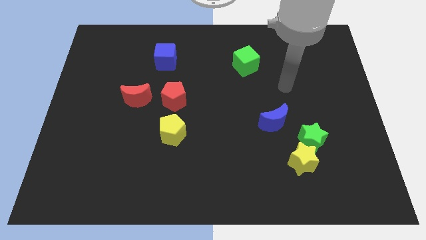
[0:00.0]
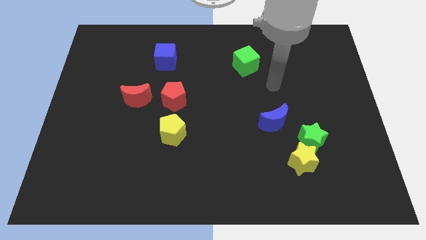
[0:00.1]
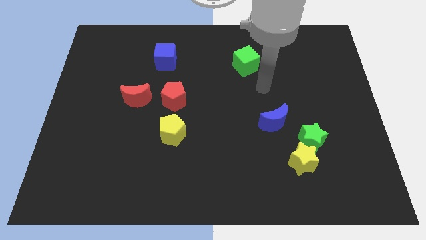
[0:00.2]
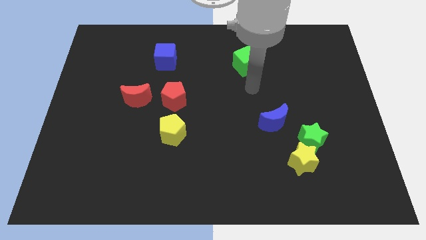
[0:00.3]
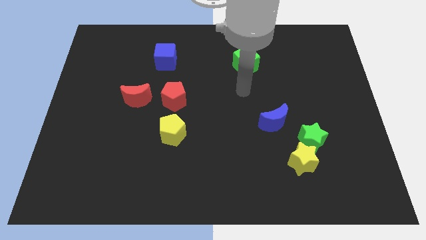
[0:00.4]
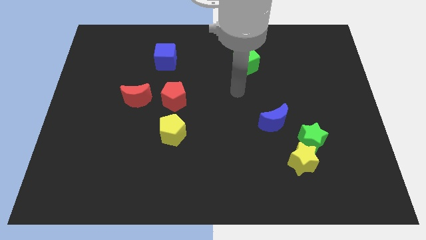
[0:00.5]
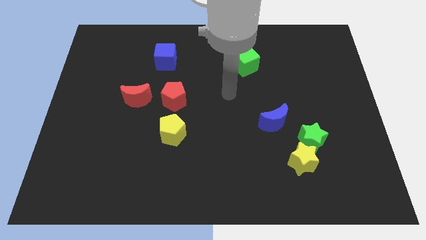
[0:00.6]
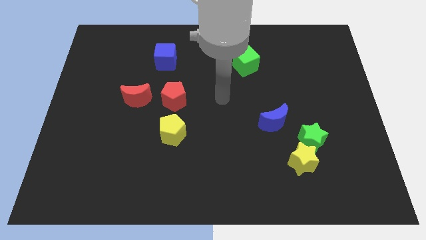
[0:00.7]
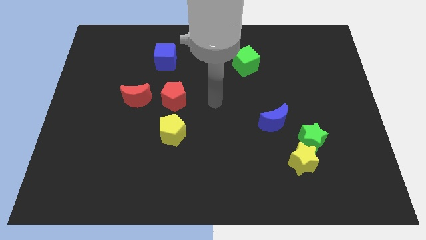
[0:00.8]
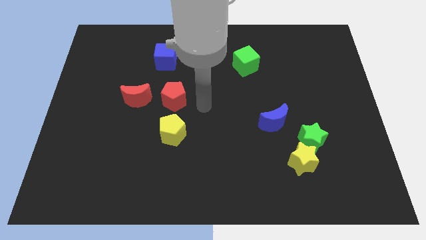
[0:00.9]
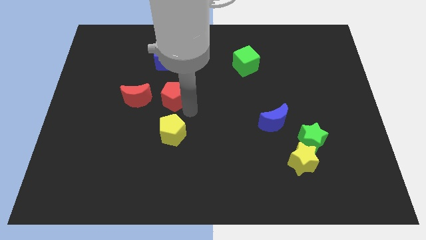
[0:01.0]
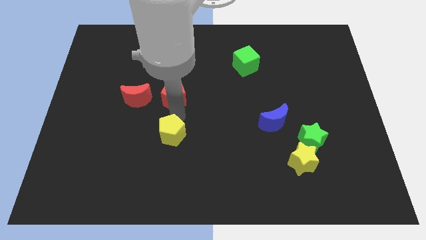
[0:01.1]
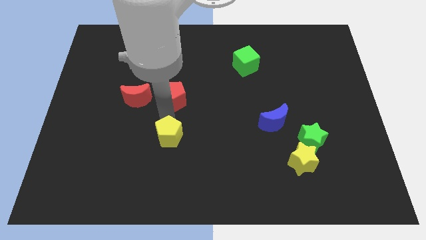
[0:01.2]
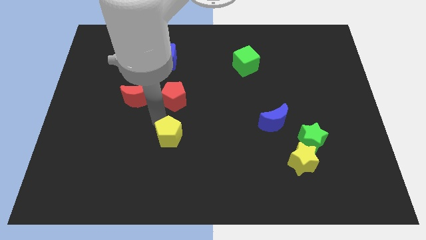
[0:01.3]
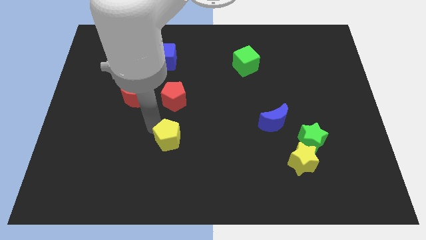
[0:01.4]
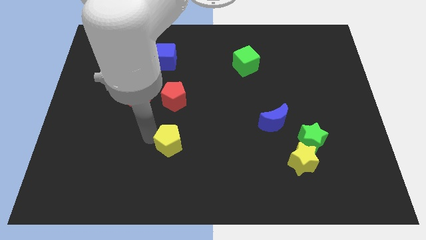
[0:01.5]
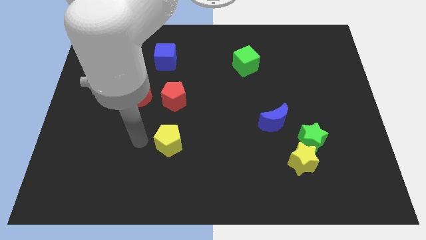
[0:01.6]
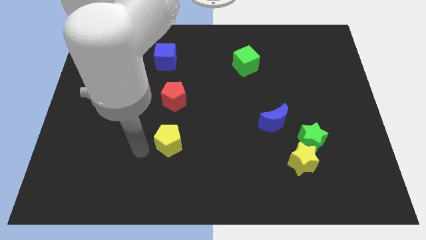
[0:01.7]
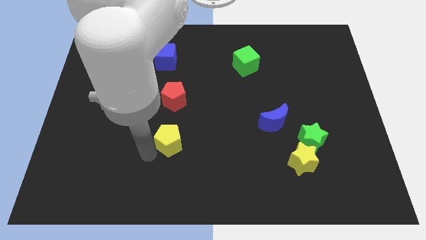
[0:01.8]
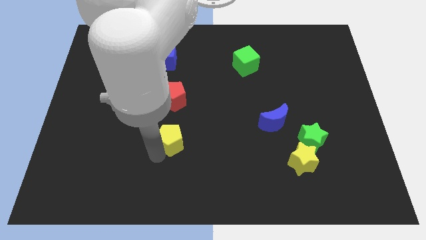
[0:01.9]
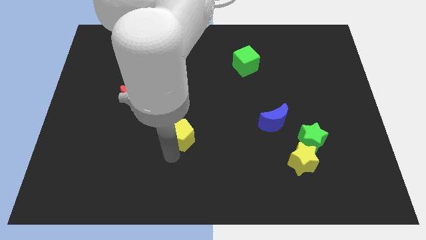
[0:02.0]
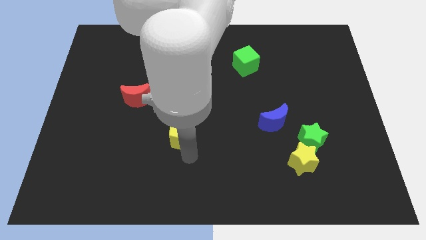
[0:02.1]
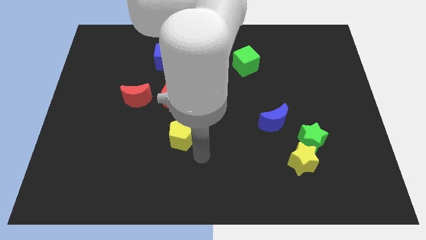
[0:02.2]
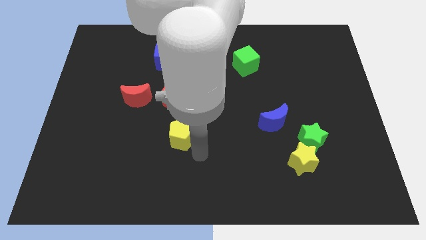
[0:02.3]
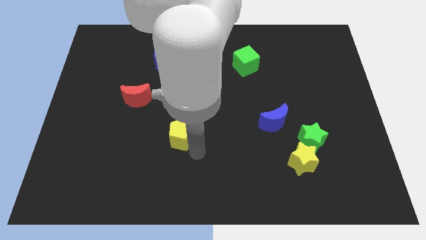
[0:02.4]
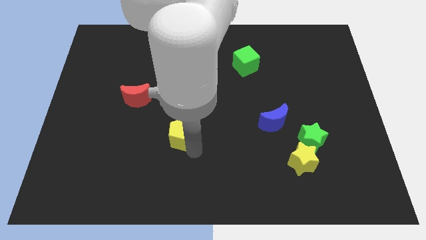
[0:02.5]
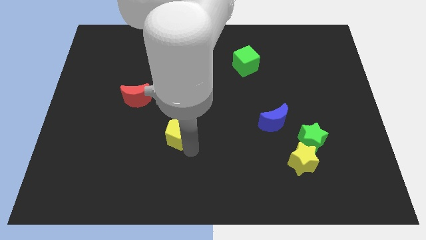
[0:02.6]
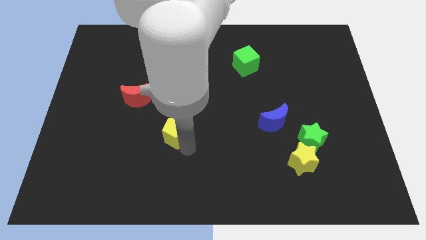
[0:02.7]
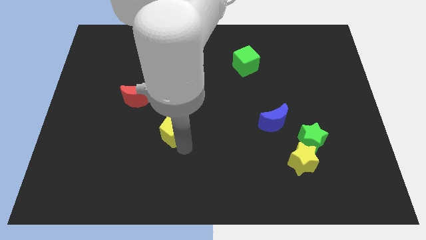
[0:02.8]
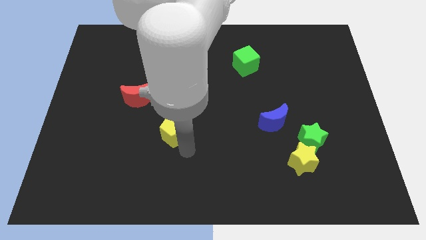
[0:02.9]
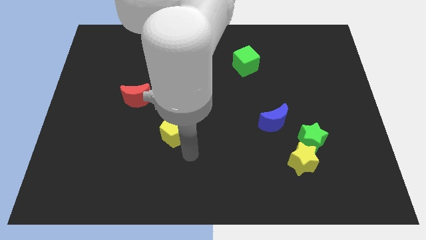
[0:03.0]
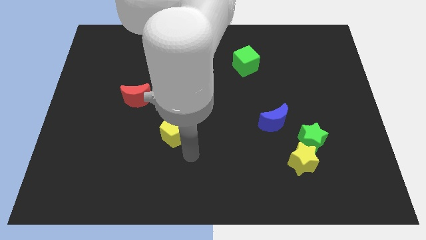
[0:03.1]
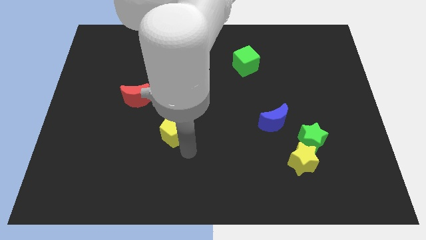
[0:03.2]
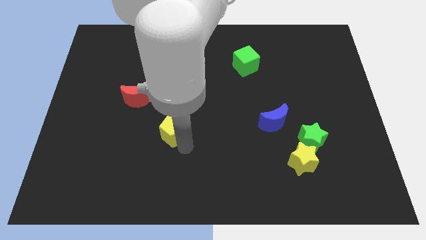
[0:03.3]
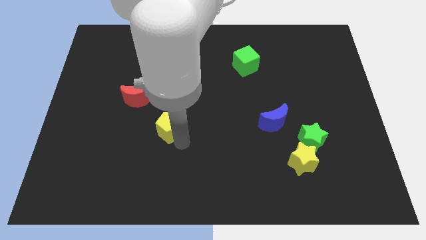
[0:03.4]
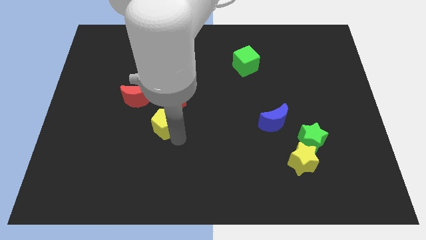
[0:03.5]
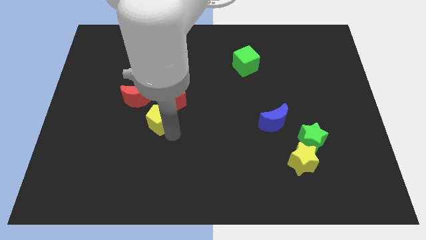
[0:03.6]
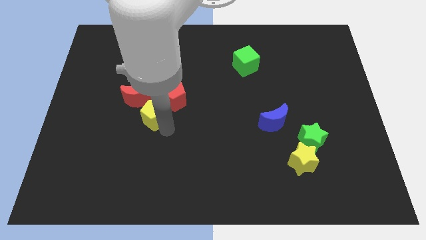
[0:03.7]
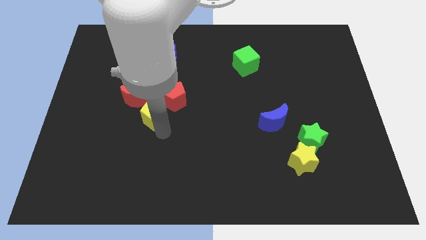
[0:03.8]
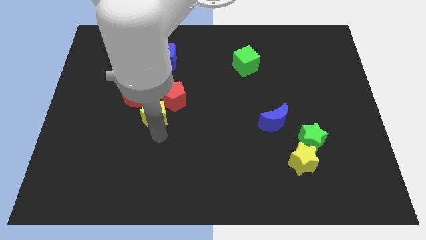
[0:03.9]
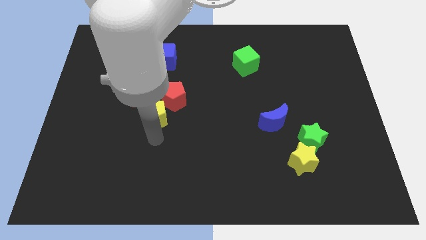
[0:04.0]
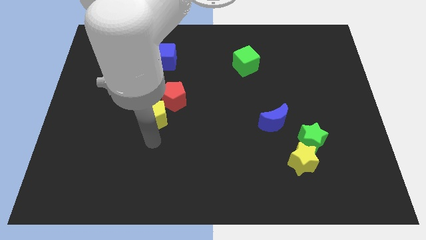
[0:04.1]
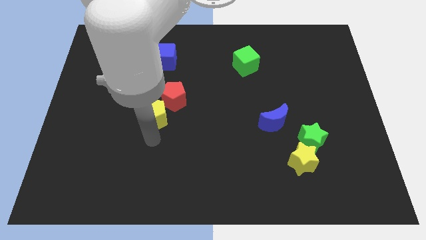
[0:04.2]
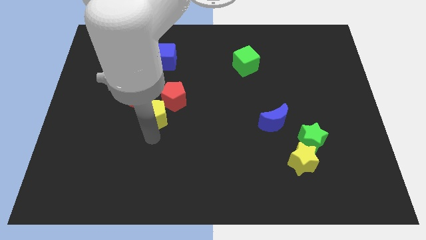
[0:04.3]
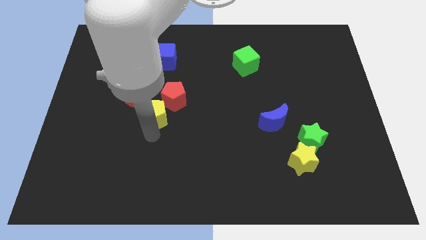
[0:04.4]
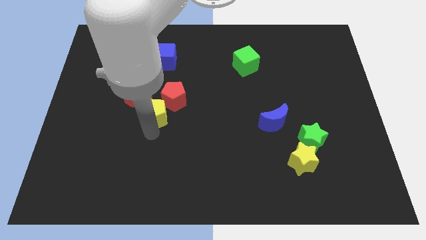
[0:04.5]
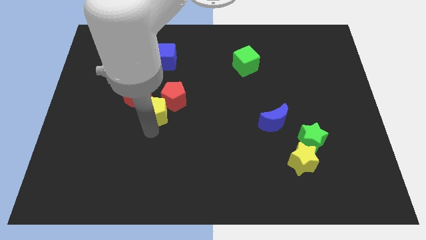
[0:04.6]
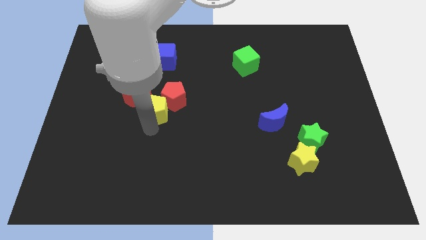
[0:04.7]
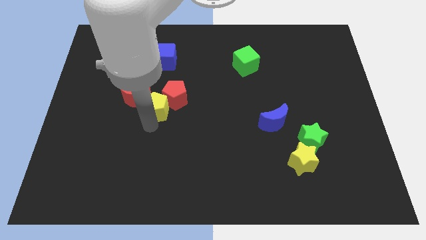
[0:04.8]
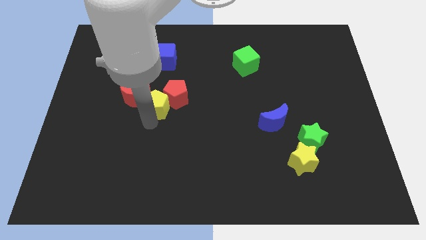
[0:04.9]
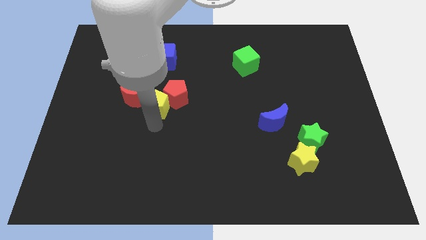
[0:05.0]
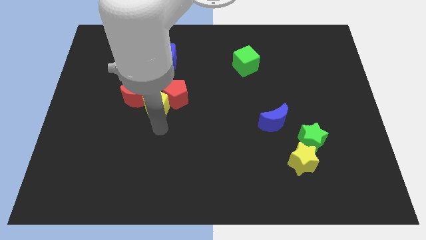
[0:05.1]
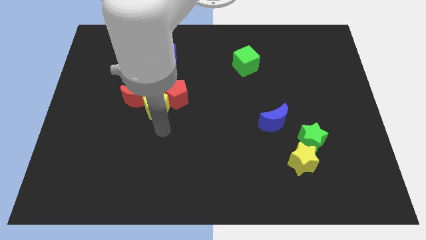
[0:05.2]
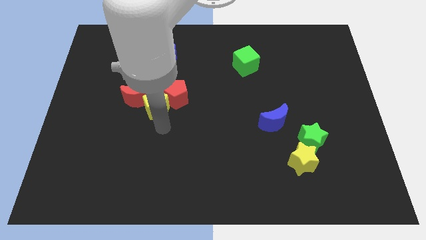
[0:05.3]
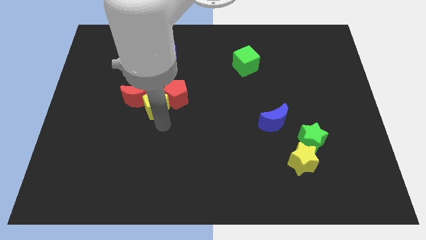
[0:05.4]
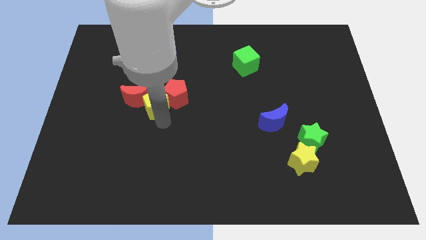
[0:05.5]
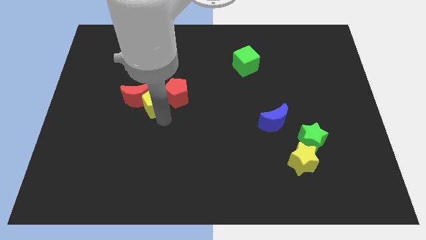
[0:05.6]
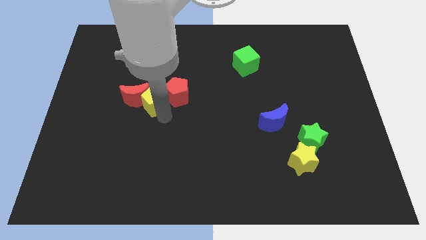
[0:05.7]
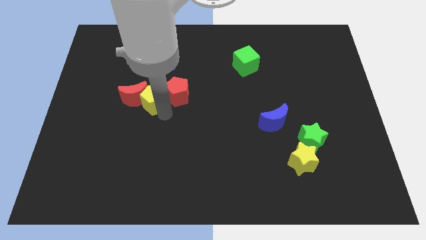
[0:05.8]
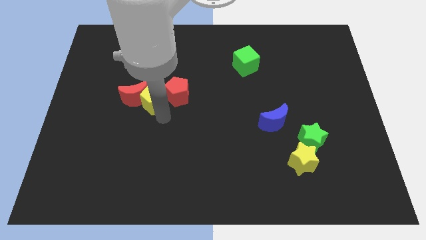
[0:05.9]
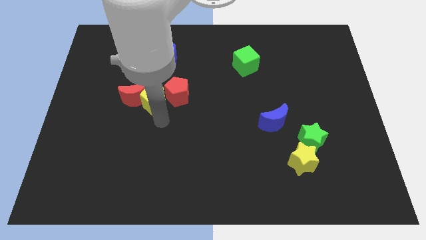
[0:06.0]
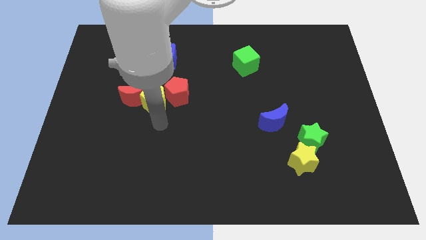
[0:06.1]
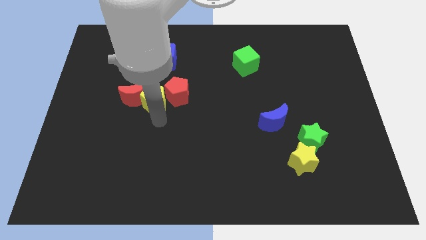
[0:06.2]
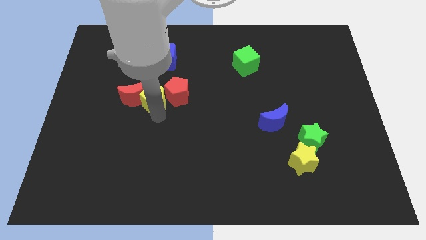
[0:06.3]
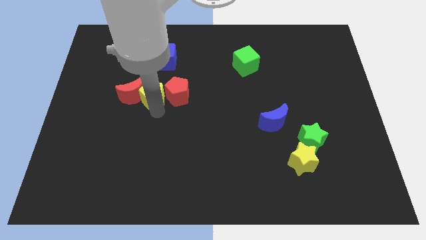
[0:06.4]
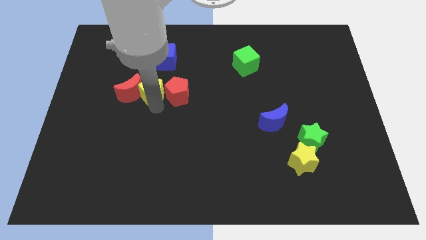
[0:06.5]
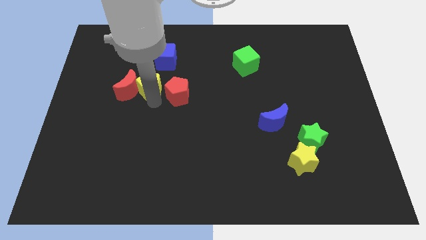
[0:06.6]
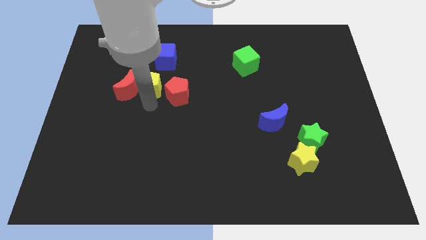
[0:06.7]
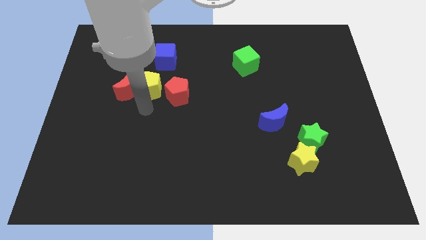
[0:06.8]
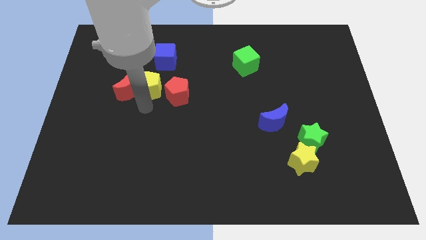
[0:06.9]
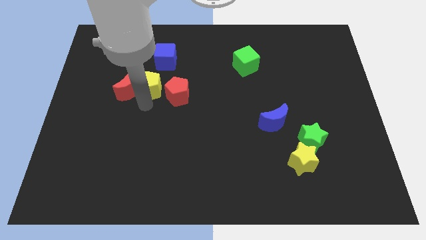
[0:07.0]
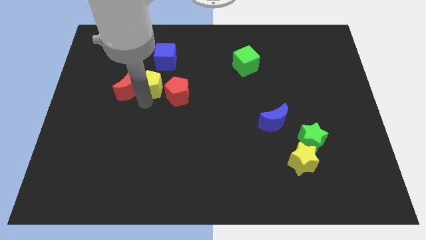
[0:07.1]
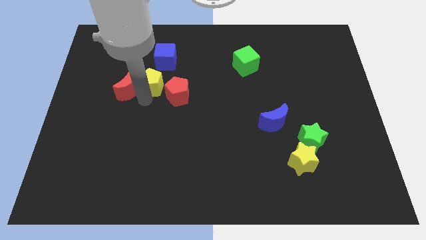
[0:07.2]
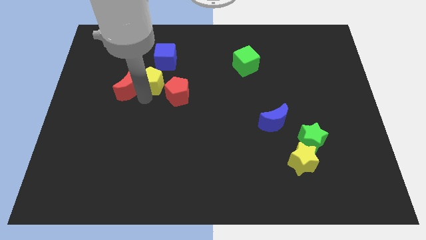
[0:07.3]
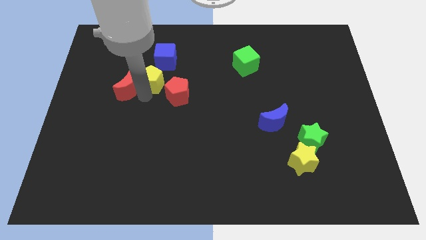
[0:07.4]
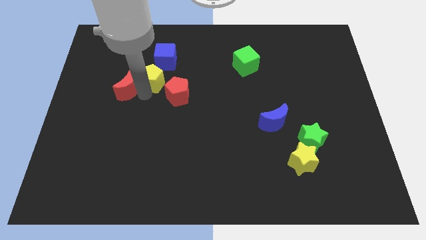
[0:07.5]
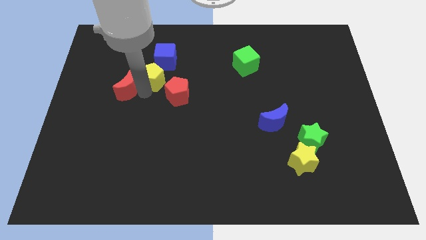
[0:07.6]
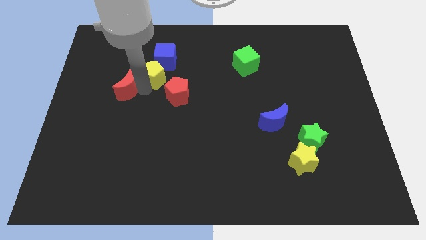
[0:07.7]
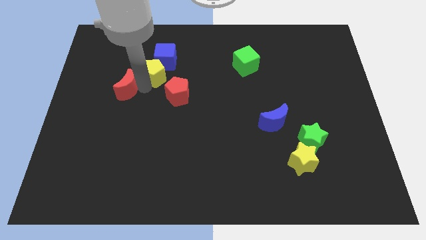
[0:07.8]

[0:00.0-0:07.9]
slide the yellow pentagon to the blue cube
